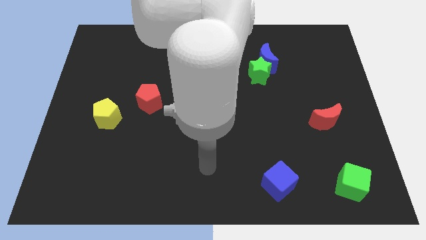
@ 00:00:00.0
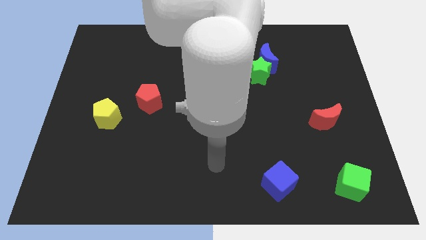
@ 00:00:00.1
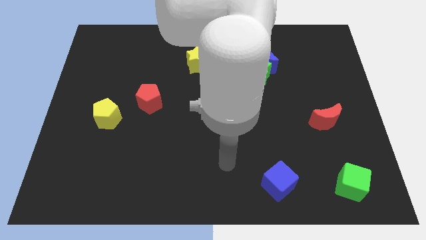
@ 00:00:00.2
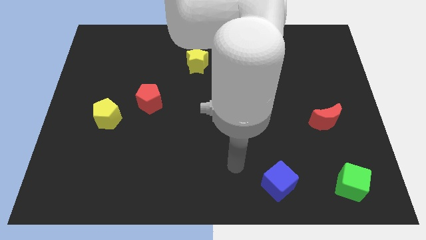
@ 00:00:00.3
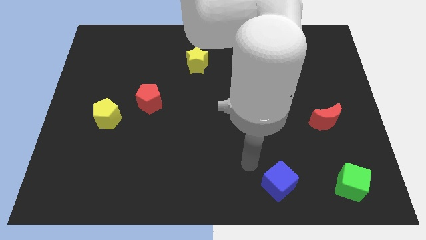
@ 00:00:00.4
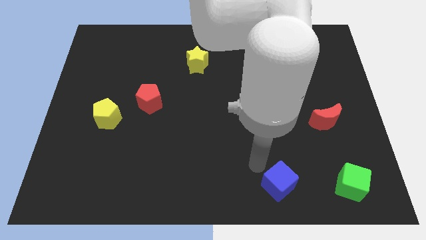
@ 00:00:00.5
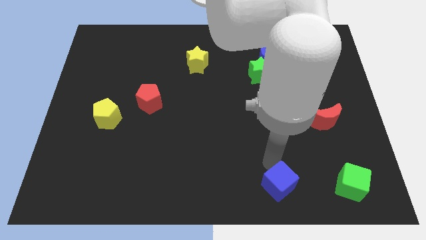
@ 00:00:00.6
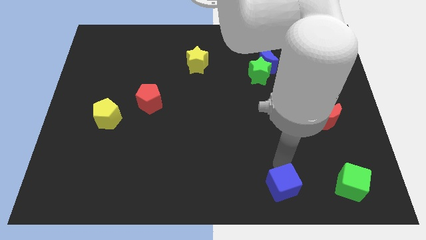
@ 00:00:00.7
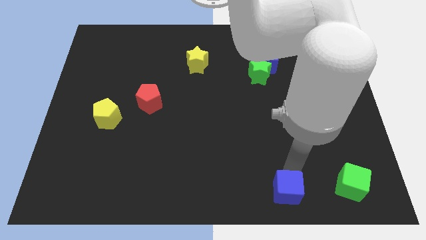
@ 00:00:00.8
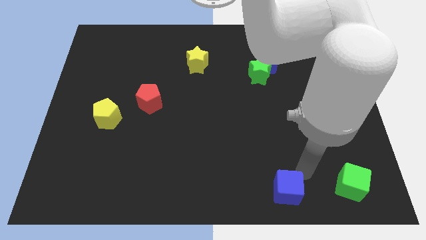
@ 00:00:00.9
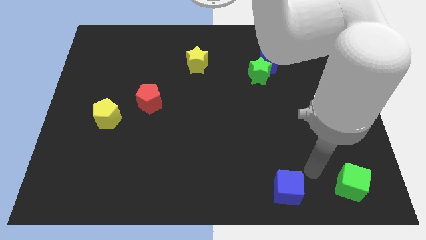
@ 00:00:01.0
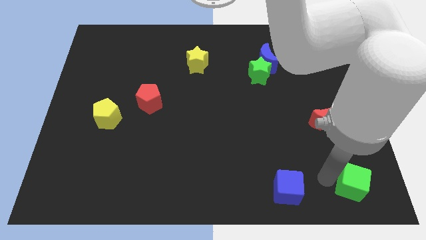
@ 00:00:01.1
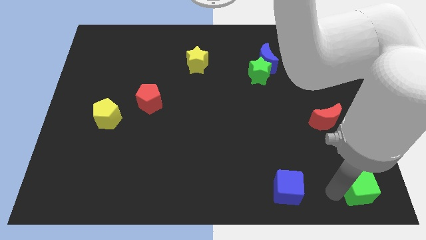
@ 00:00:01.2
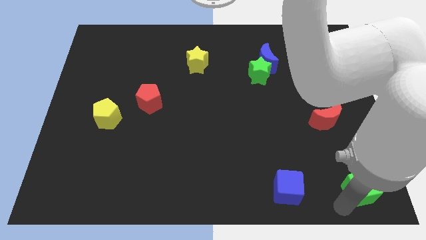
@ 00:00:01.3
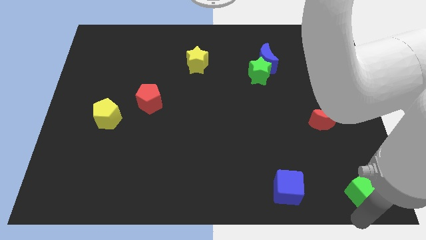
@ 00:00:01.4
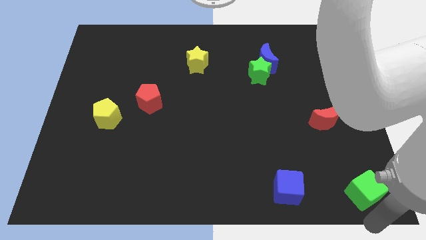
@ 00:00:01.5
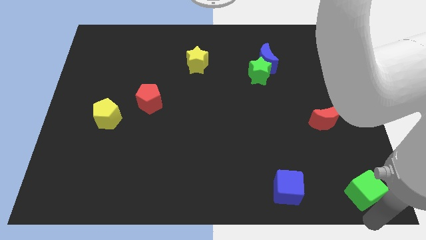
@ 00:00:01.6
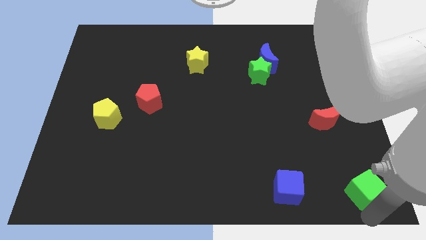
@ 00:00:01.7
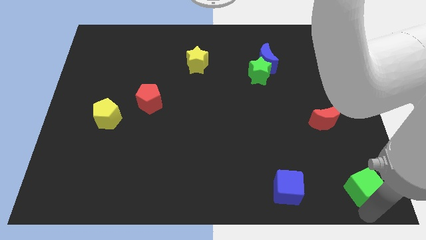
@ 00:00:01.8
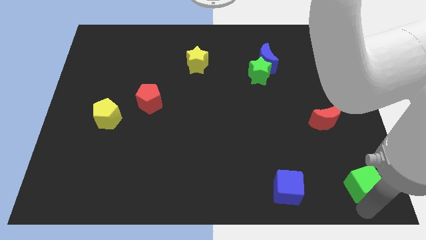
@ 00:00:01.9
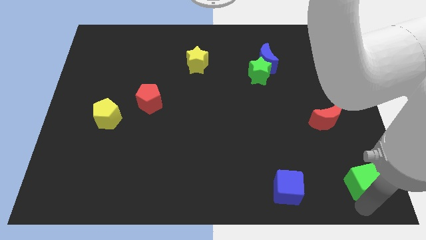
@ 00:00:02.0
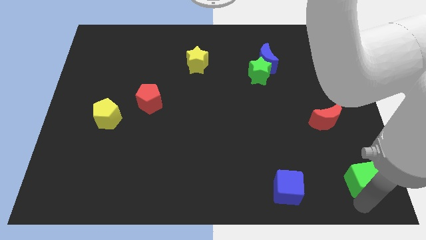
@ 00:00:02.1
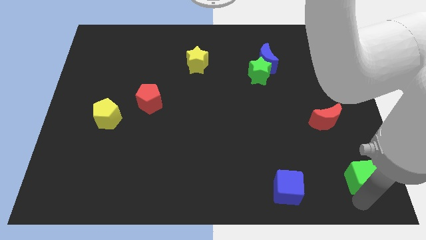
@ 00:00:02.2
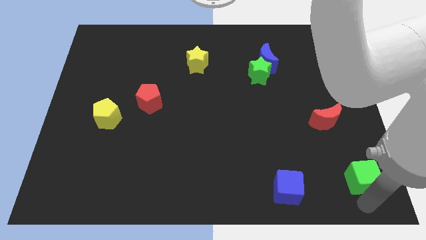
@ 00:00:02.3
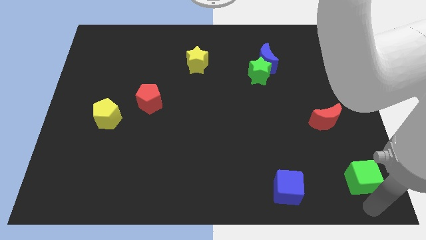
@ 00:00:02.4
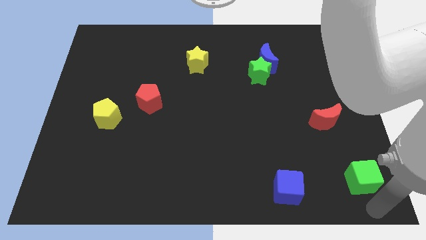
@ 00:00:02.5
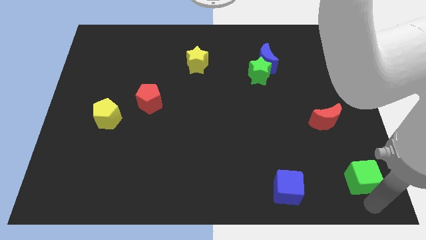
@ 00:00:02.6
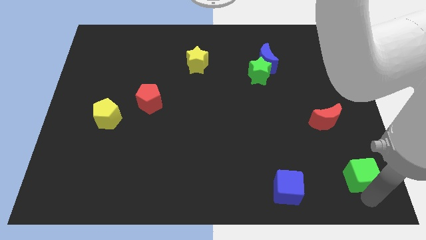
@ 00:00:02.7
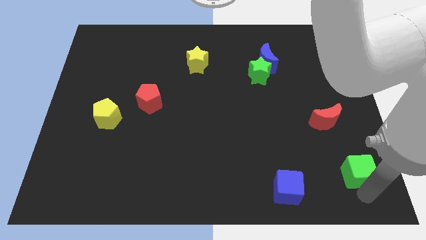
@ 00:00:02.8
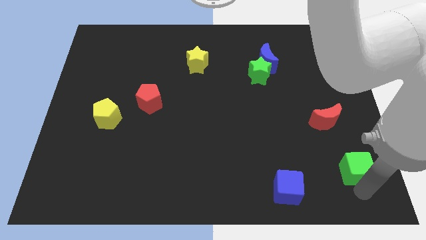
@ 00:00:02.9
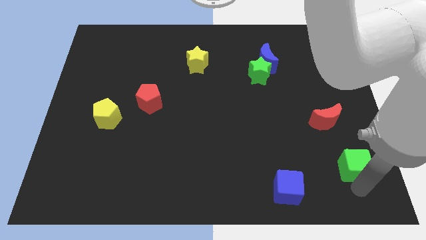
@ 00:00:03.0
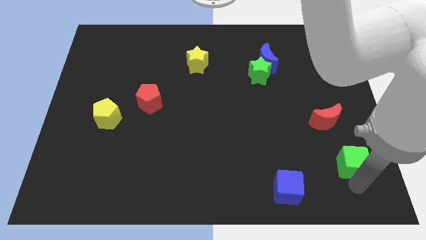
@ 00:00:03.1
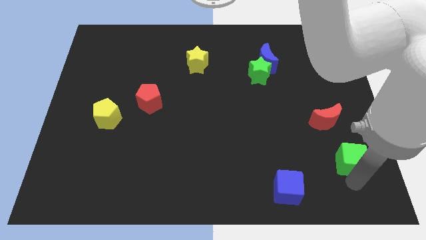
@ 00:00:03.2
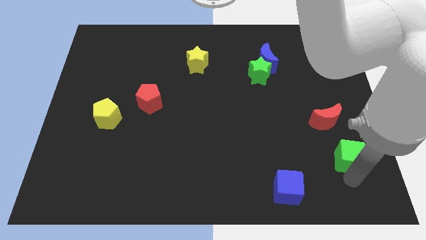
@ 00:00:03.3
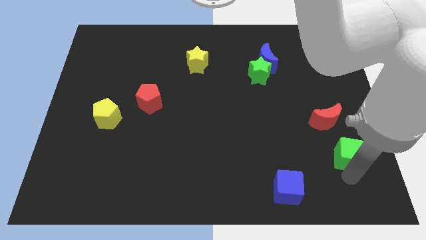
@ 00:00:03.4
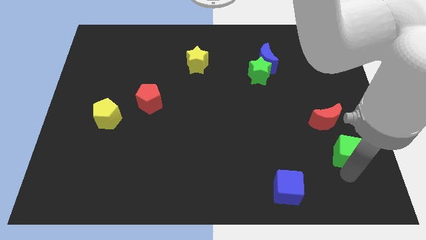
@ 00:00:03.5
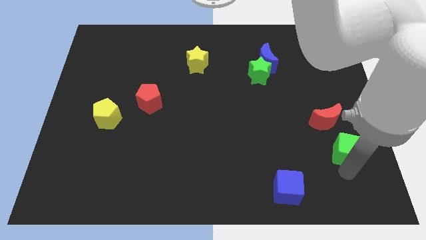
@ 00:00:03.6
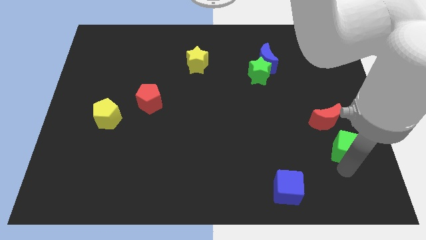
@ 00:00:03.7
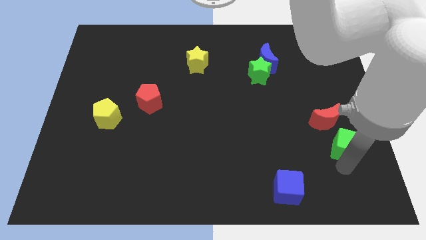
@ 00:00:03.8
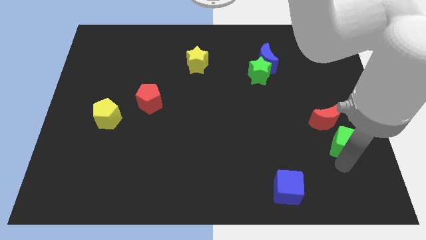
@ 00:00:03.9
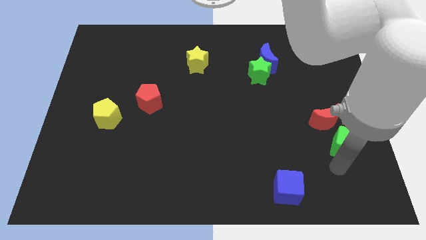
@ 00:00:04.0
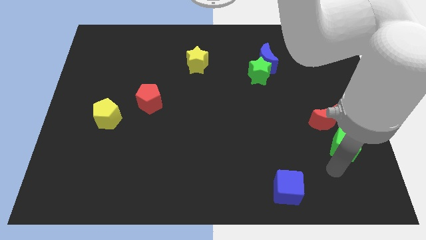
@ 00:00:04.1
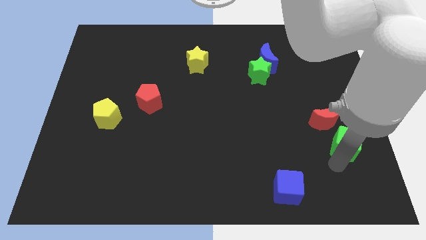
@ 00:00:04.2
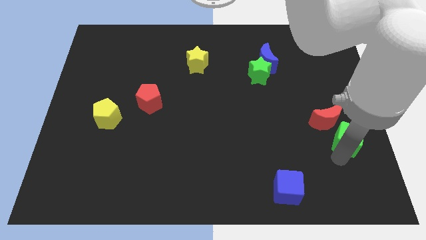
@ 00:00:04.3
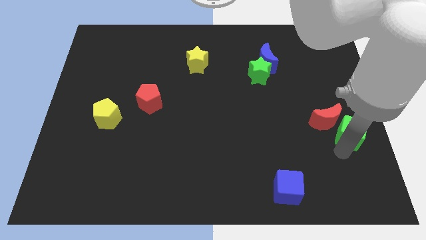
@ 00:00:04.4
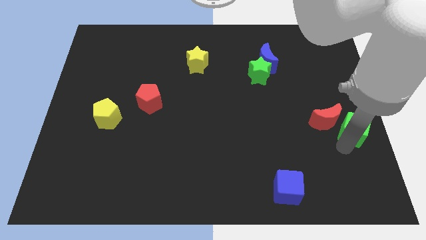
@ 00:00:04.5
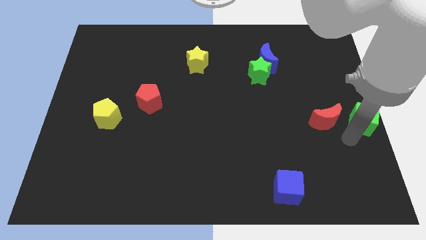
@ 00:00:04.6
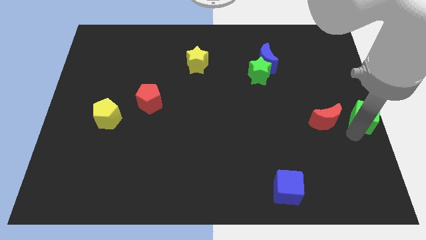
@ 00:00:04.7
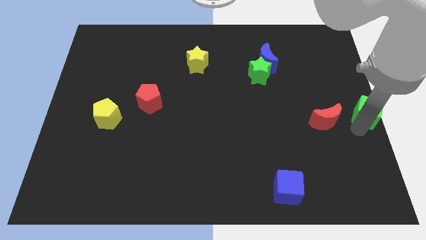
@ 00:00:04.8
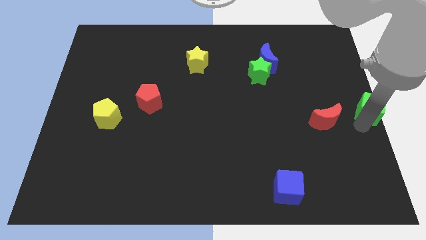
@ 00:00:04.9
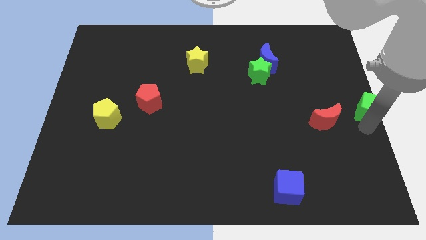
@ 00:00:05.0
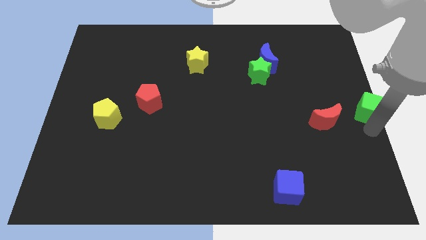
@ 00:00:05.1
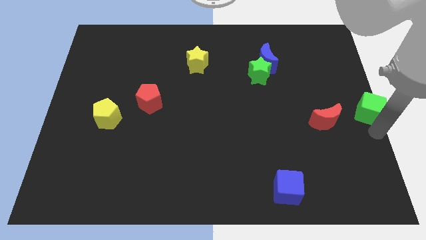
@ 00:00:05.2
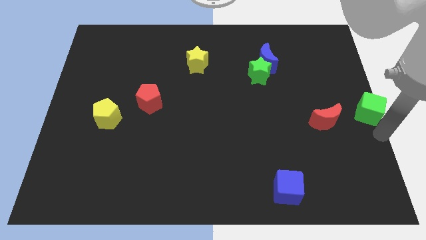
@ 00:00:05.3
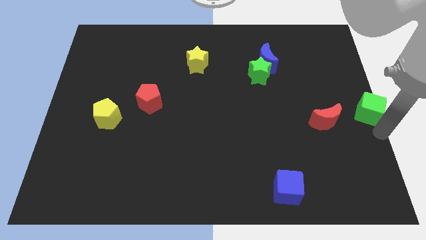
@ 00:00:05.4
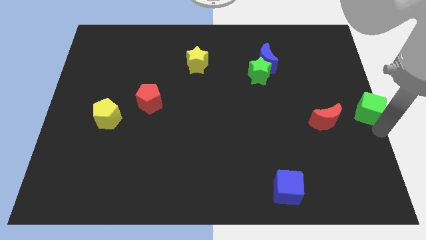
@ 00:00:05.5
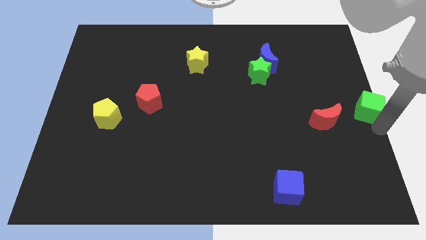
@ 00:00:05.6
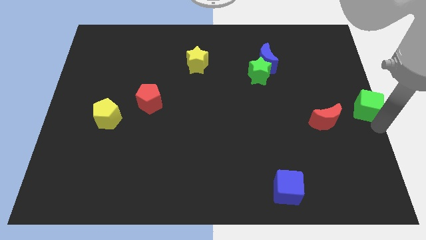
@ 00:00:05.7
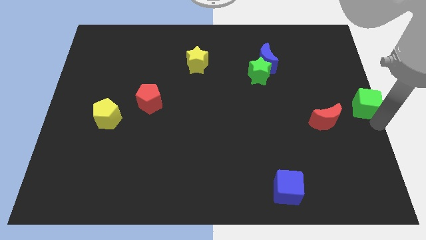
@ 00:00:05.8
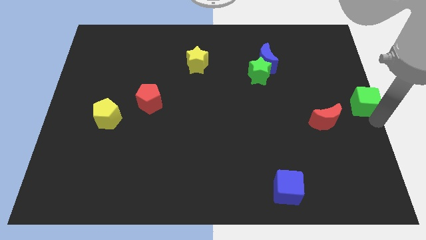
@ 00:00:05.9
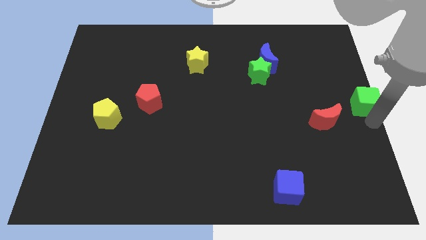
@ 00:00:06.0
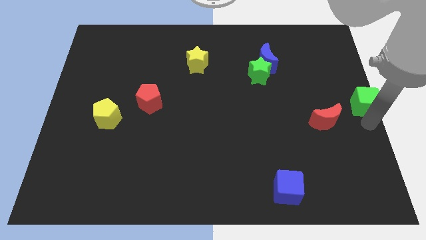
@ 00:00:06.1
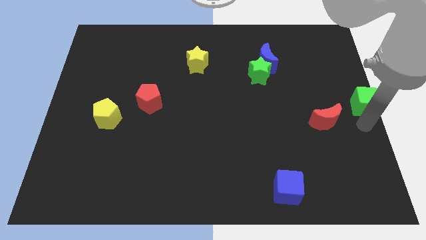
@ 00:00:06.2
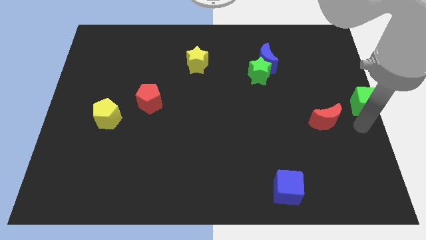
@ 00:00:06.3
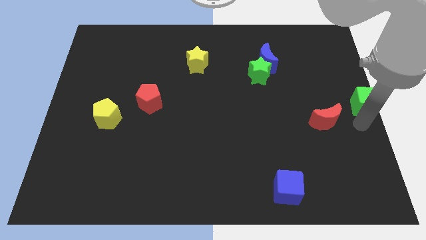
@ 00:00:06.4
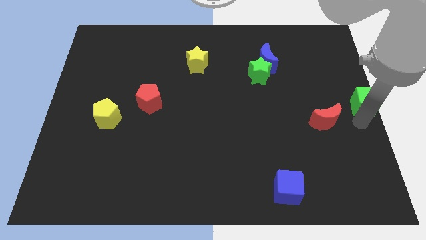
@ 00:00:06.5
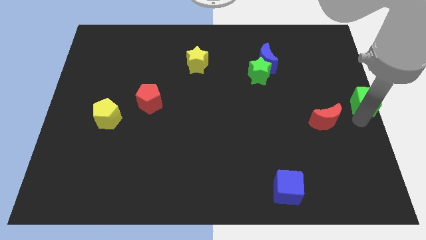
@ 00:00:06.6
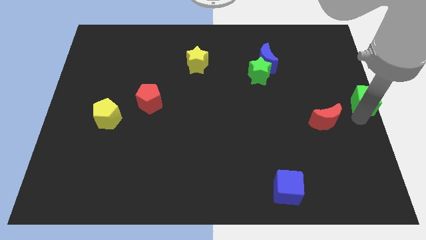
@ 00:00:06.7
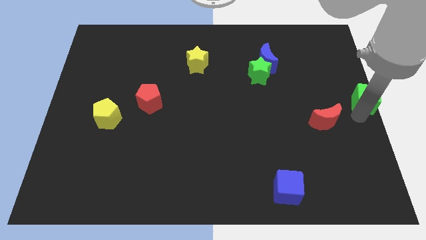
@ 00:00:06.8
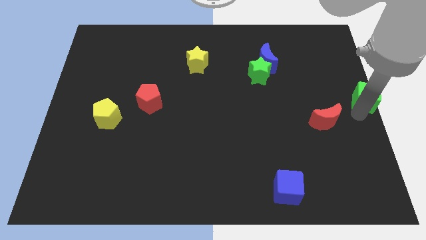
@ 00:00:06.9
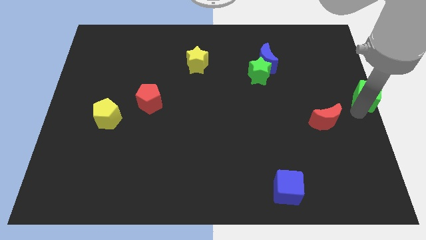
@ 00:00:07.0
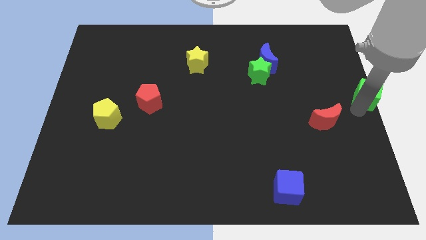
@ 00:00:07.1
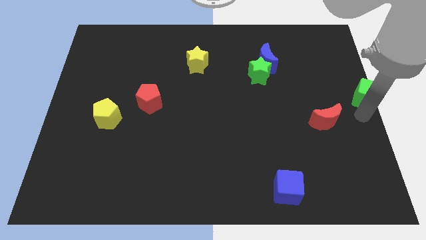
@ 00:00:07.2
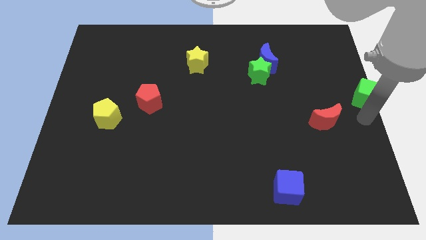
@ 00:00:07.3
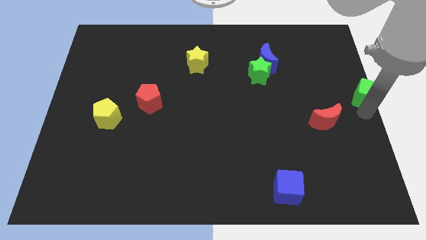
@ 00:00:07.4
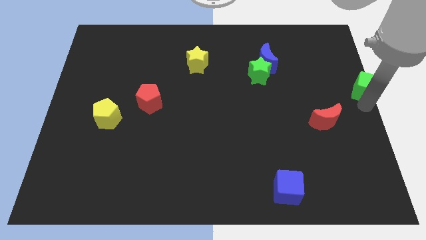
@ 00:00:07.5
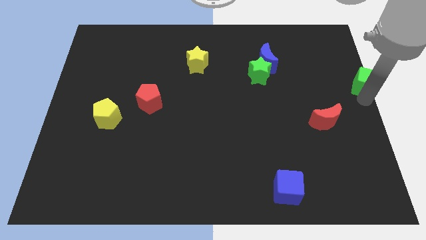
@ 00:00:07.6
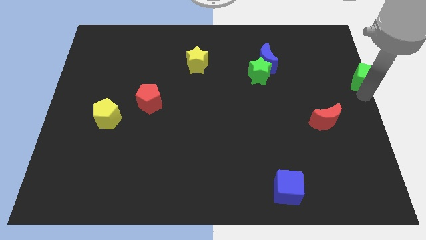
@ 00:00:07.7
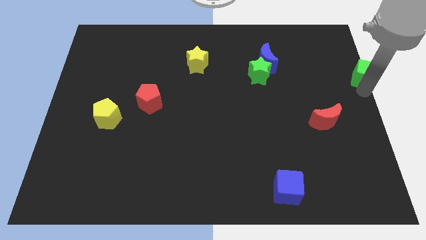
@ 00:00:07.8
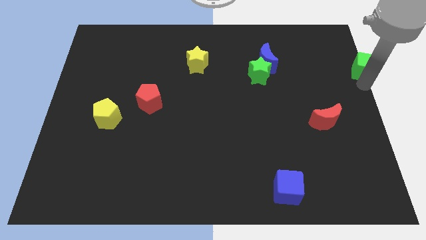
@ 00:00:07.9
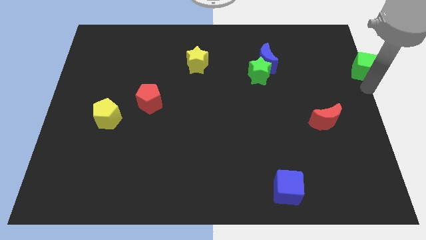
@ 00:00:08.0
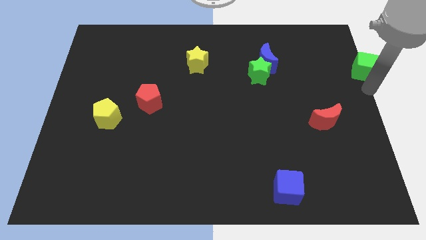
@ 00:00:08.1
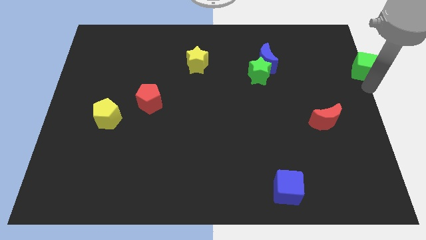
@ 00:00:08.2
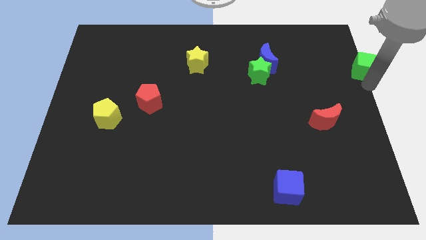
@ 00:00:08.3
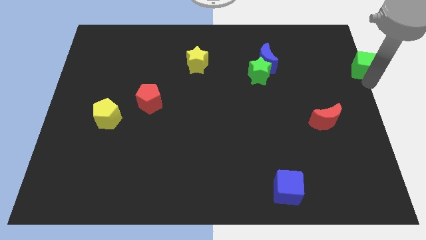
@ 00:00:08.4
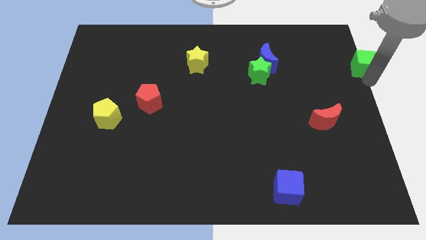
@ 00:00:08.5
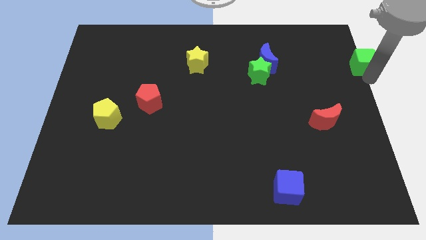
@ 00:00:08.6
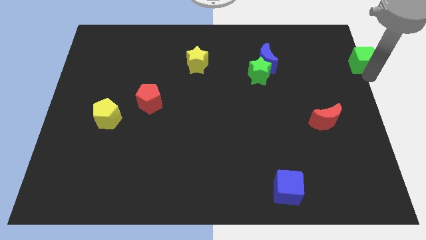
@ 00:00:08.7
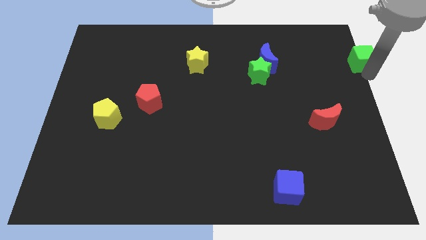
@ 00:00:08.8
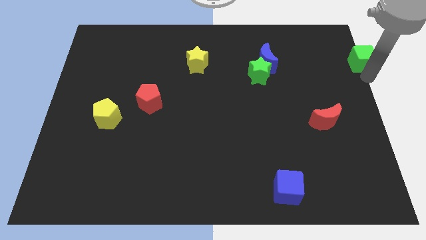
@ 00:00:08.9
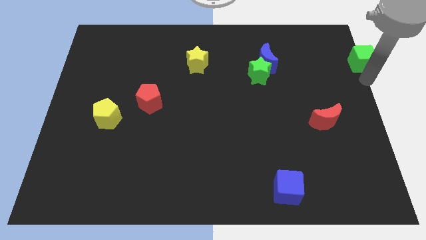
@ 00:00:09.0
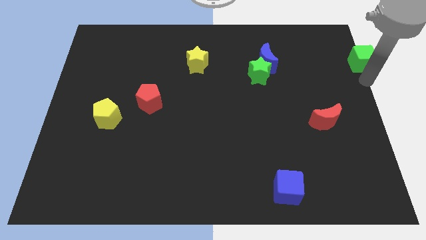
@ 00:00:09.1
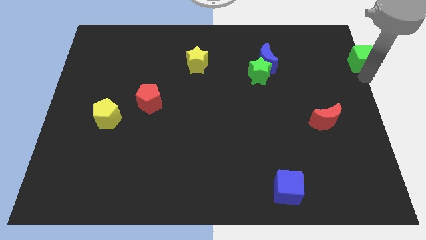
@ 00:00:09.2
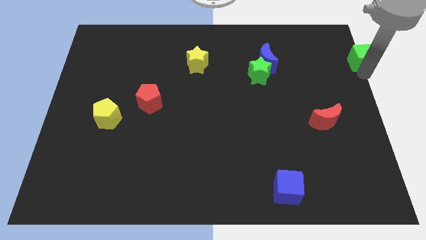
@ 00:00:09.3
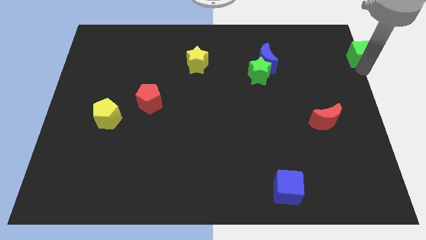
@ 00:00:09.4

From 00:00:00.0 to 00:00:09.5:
move the green cube to the top right corner
